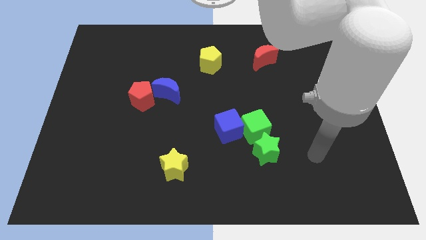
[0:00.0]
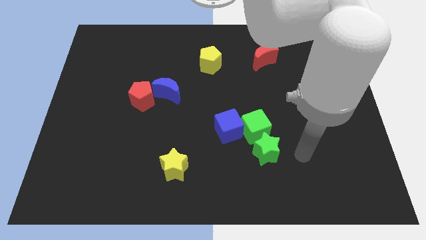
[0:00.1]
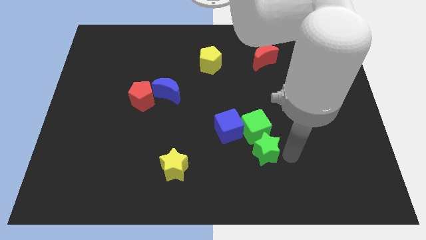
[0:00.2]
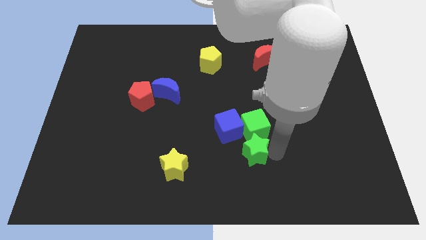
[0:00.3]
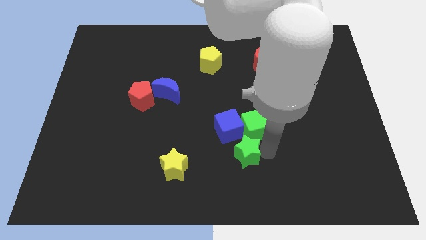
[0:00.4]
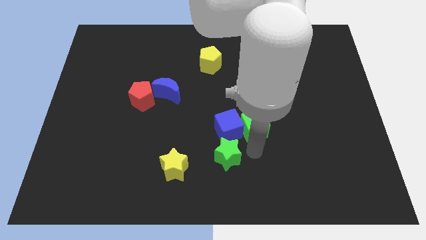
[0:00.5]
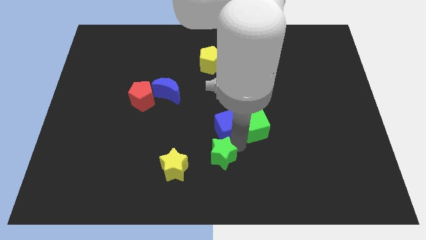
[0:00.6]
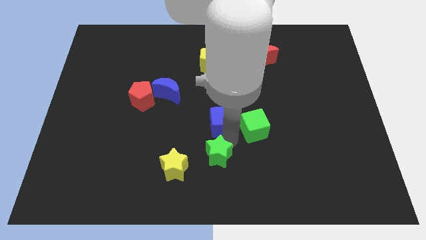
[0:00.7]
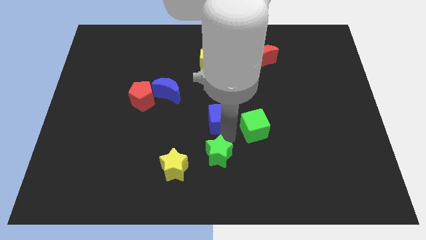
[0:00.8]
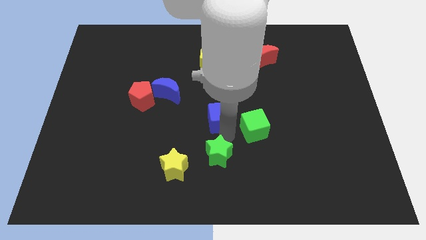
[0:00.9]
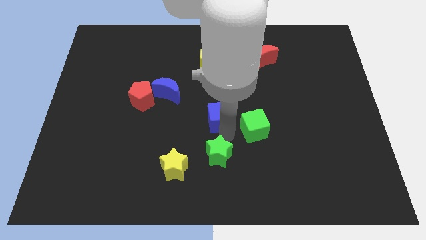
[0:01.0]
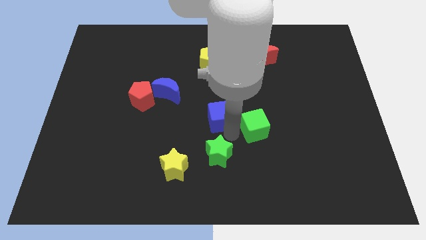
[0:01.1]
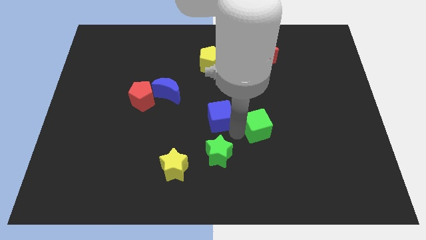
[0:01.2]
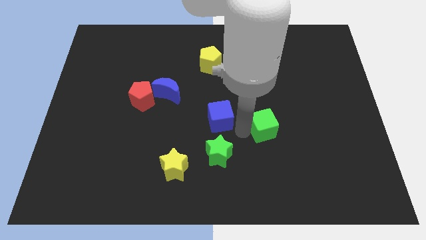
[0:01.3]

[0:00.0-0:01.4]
move the green cube away from the blue cube and green star

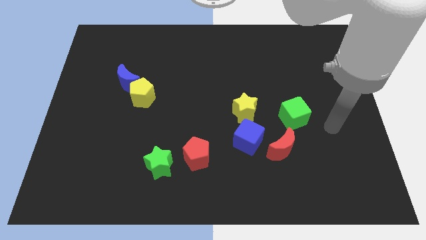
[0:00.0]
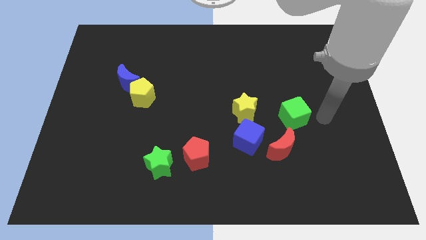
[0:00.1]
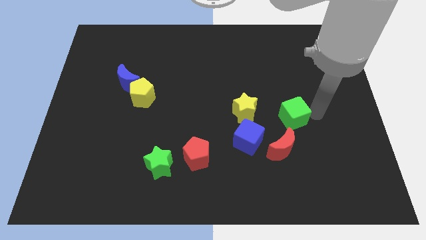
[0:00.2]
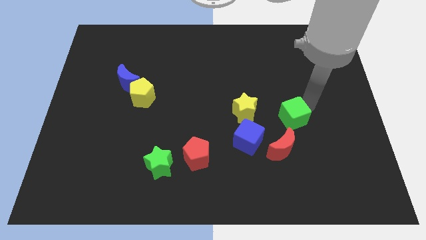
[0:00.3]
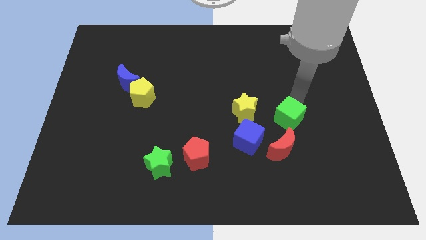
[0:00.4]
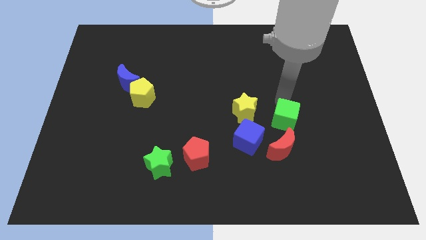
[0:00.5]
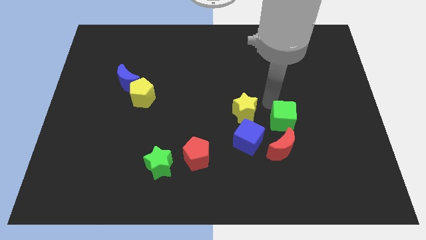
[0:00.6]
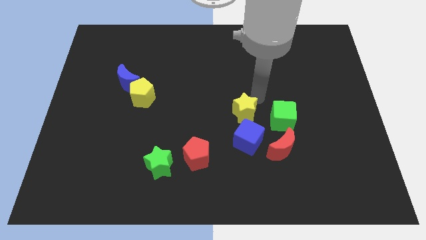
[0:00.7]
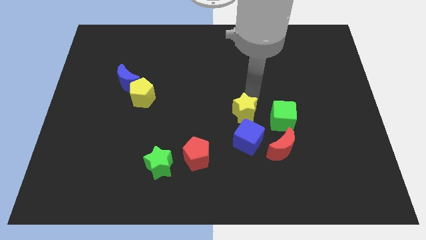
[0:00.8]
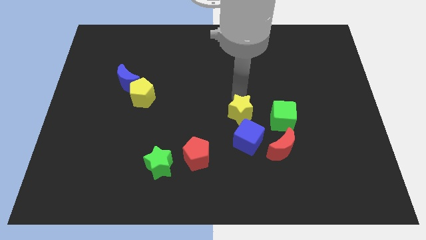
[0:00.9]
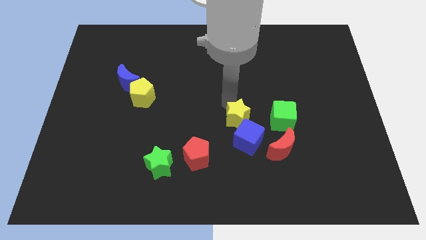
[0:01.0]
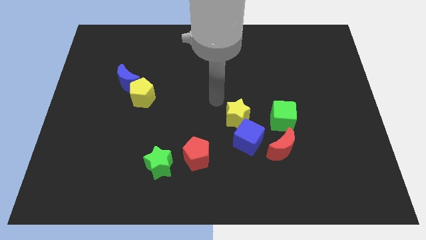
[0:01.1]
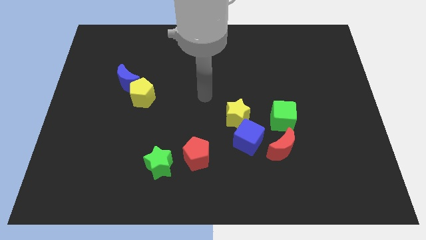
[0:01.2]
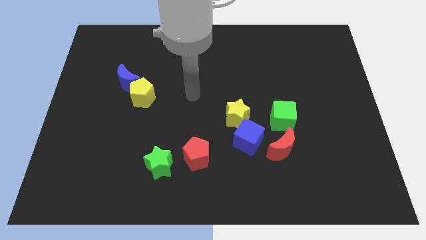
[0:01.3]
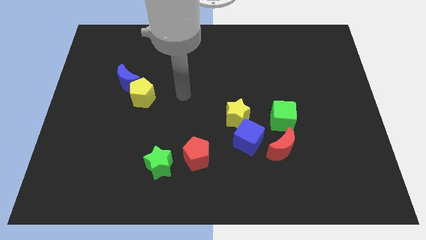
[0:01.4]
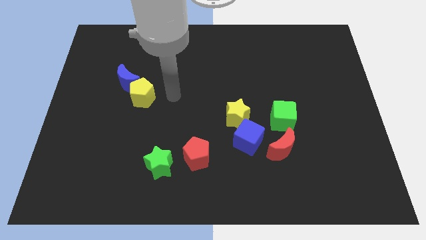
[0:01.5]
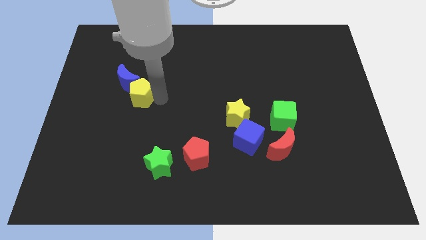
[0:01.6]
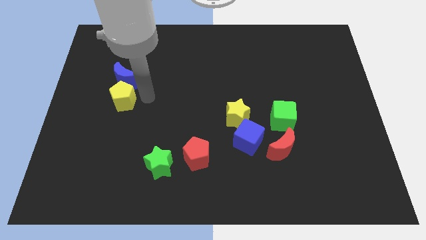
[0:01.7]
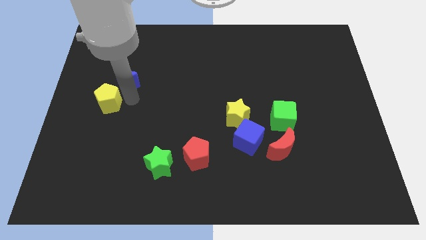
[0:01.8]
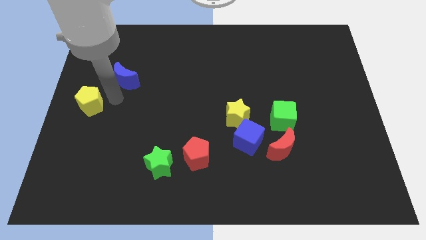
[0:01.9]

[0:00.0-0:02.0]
pull the blue moon apart from the yellow pentagon

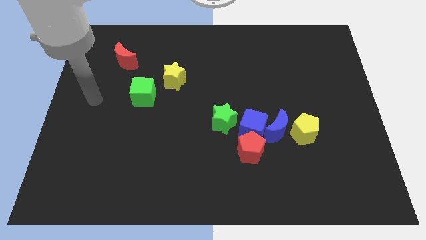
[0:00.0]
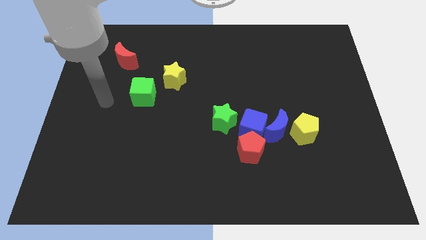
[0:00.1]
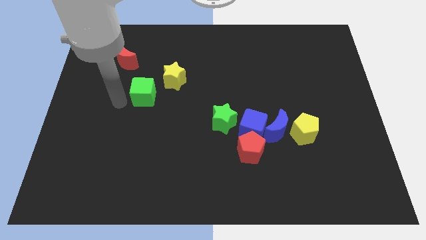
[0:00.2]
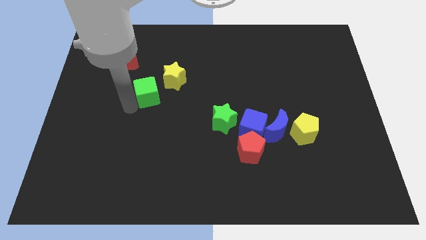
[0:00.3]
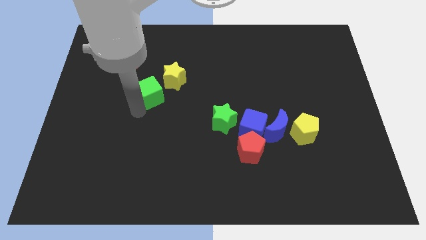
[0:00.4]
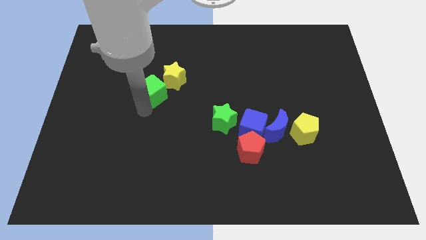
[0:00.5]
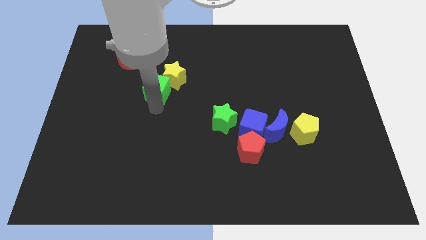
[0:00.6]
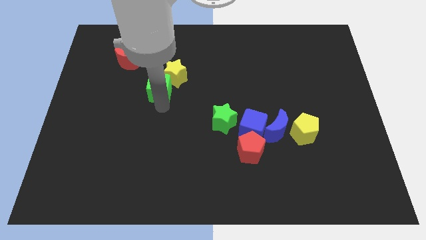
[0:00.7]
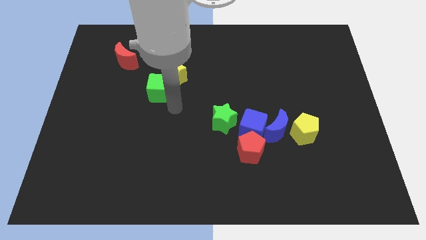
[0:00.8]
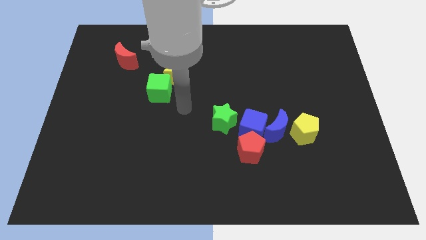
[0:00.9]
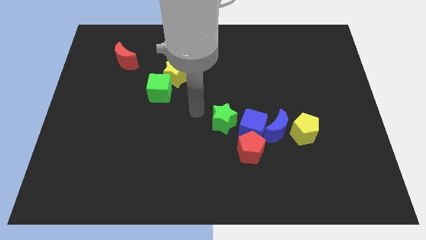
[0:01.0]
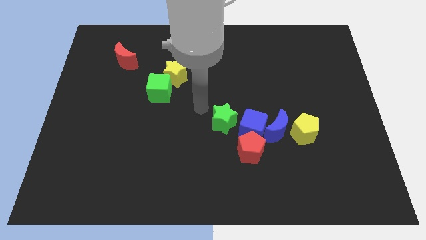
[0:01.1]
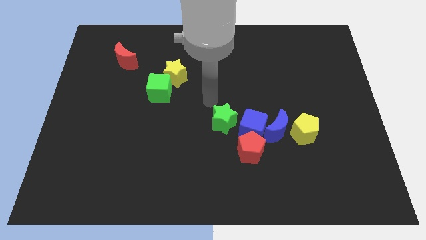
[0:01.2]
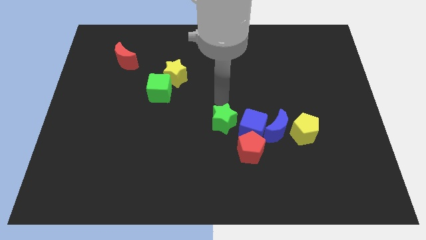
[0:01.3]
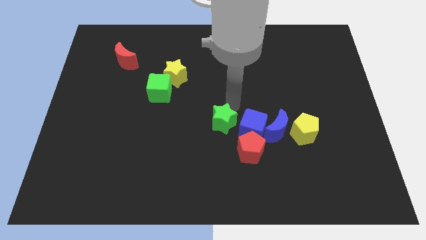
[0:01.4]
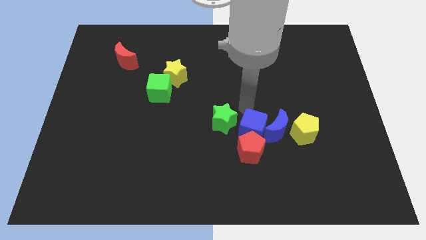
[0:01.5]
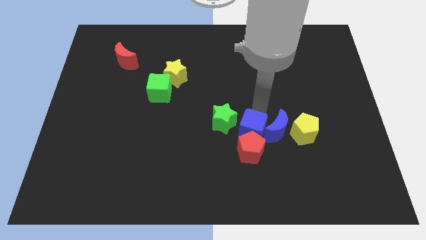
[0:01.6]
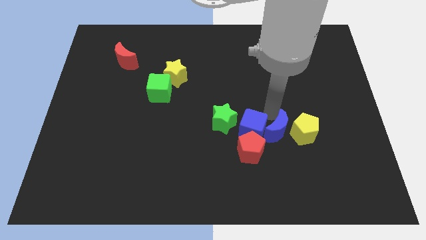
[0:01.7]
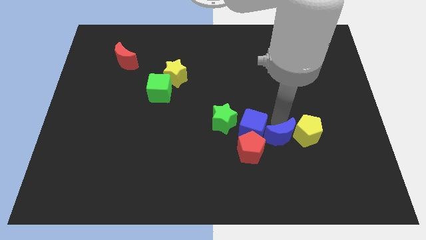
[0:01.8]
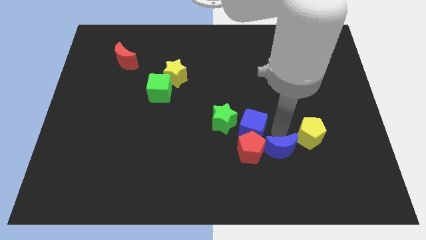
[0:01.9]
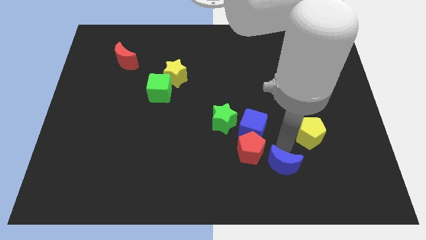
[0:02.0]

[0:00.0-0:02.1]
pull the yellow pentagon apart from the blue moon

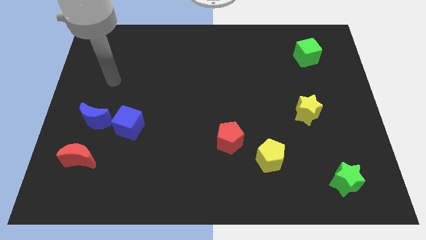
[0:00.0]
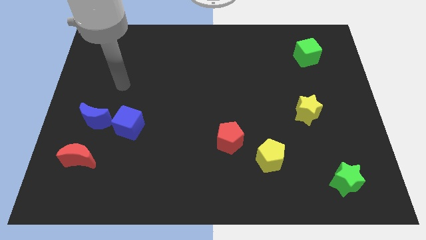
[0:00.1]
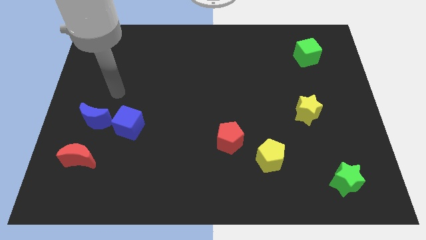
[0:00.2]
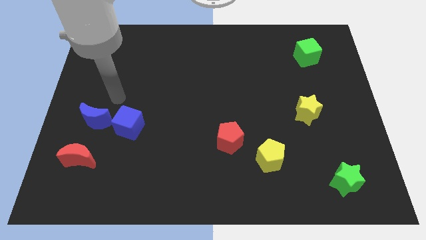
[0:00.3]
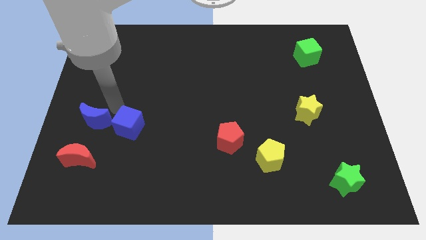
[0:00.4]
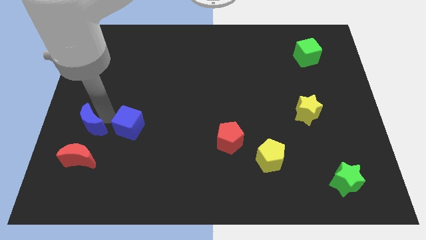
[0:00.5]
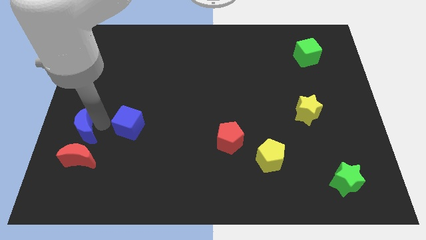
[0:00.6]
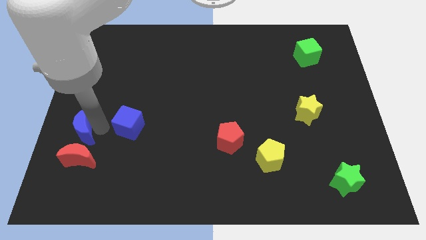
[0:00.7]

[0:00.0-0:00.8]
pull the blue cube apart from the blue moon

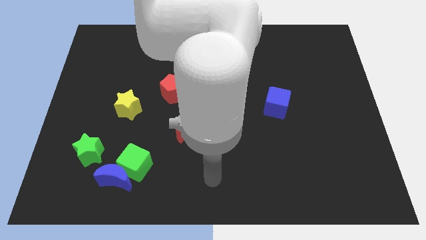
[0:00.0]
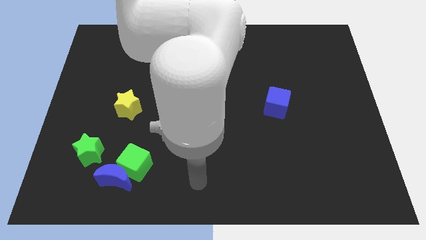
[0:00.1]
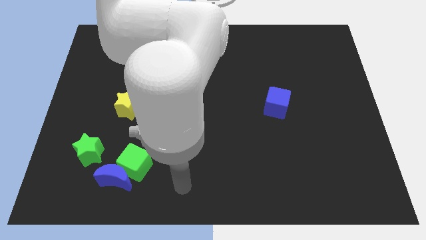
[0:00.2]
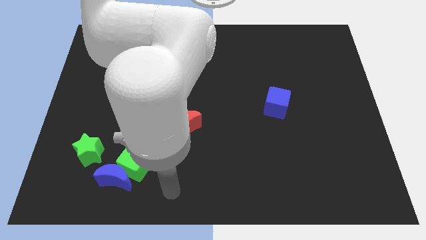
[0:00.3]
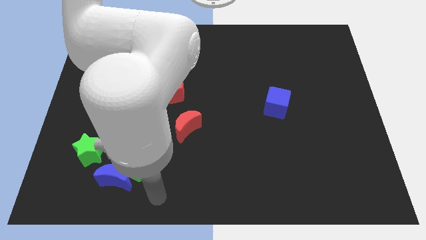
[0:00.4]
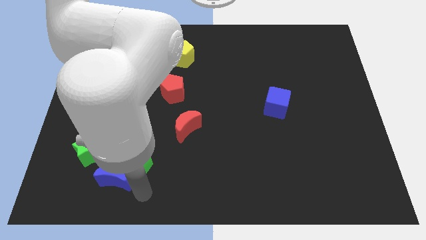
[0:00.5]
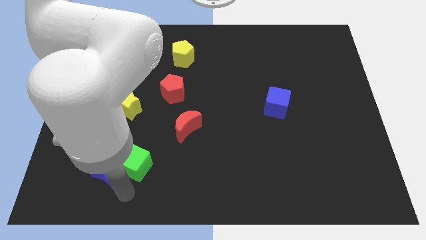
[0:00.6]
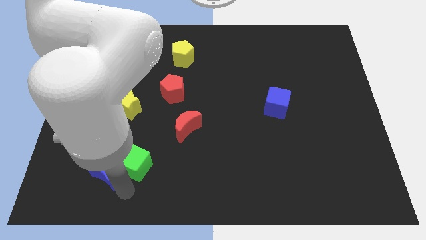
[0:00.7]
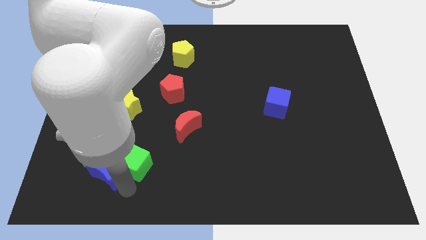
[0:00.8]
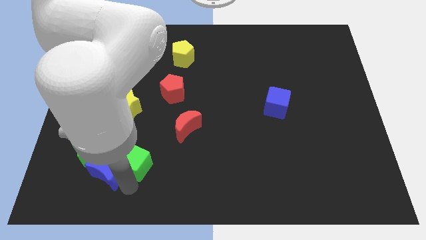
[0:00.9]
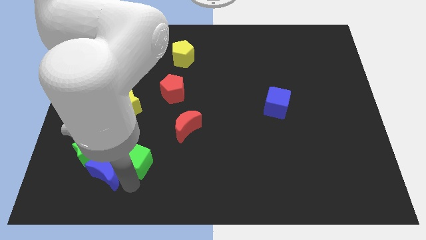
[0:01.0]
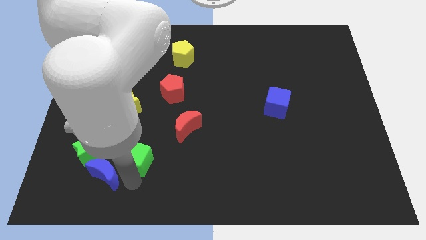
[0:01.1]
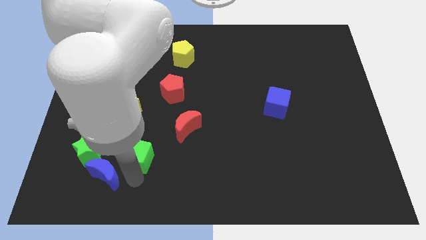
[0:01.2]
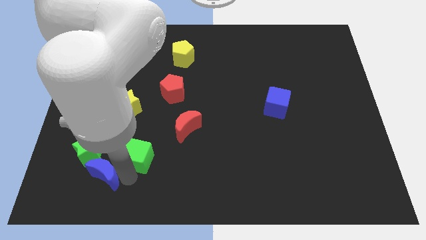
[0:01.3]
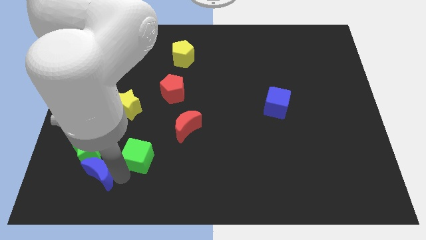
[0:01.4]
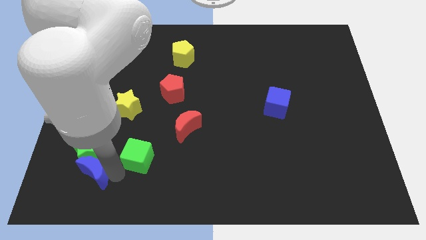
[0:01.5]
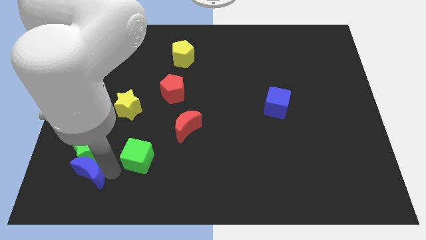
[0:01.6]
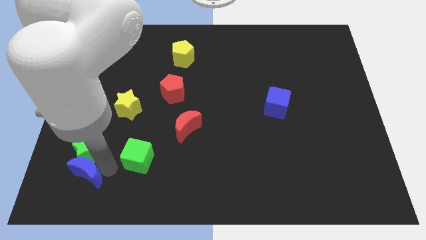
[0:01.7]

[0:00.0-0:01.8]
separate the green cube from the blue moon

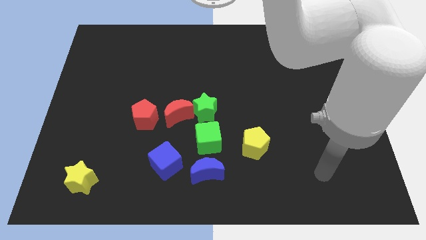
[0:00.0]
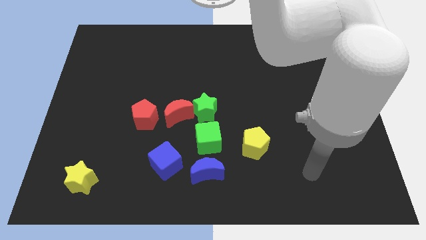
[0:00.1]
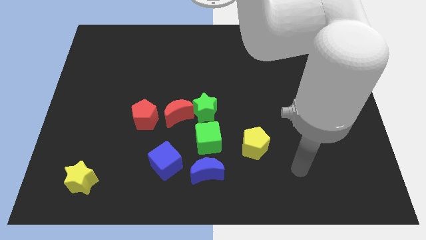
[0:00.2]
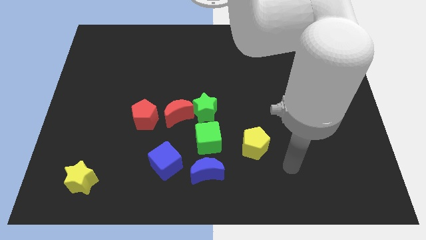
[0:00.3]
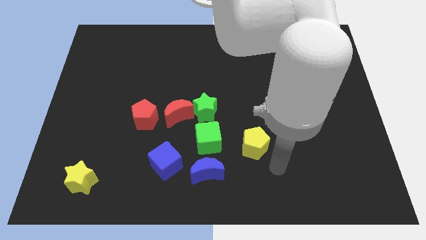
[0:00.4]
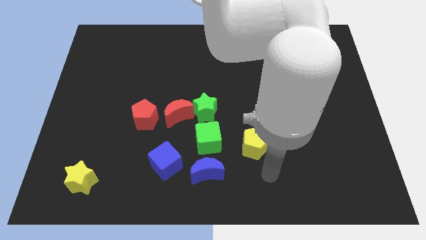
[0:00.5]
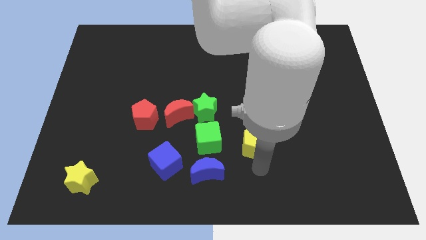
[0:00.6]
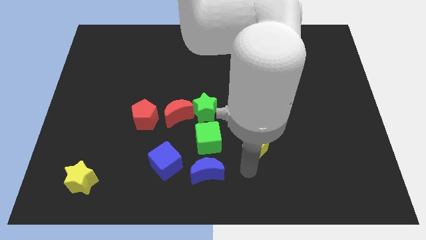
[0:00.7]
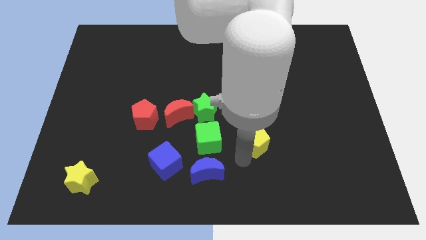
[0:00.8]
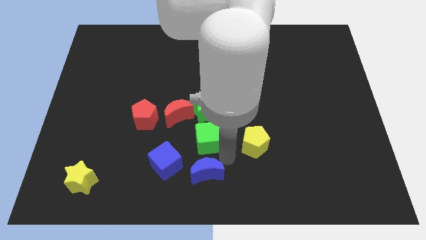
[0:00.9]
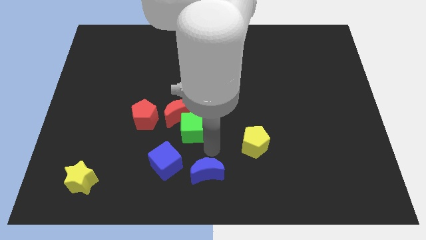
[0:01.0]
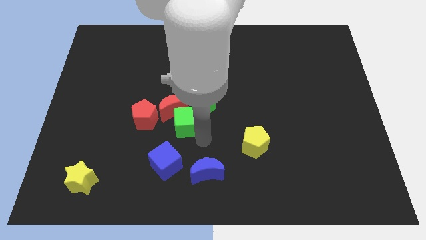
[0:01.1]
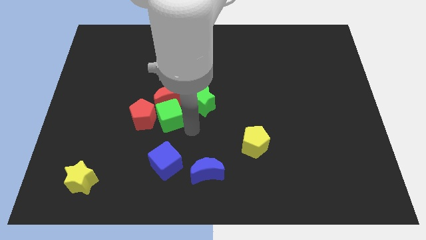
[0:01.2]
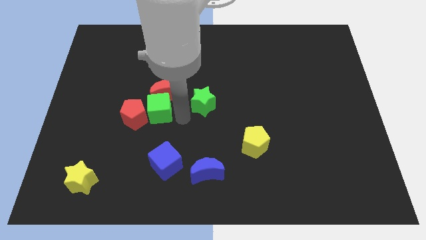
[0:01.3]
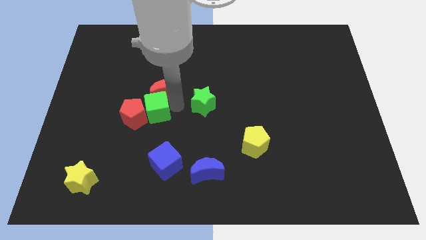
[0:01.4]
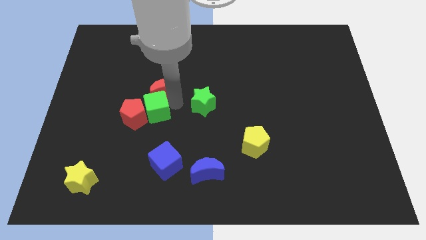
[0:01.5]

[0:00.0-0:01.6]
pull the green star apart from the red moon and green cube
